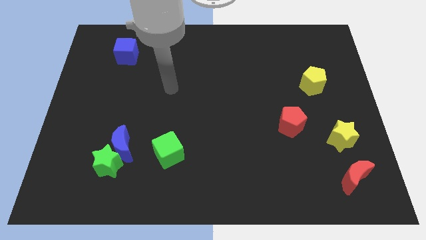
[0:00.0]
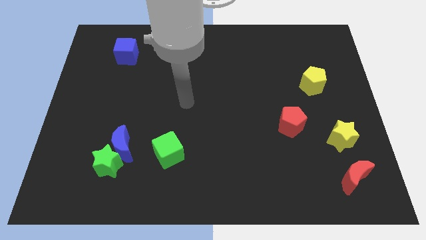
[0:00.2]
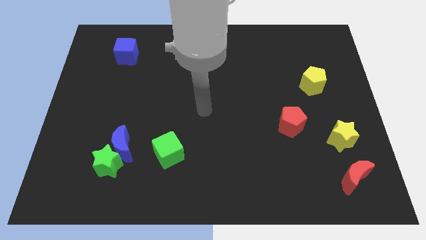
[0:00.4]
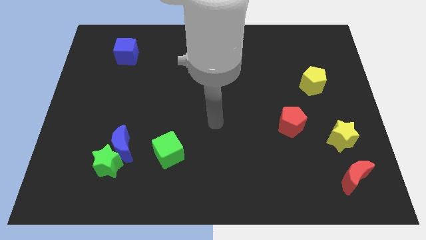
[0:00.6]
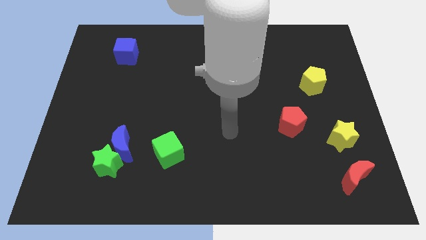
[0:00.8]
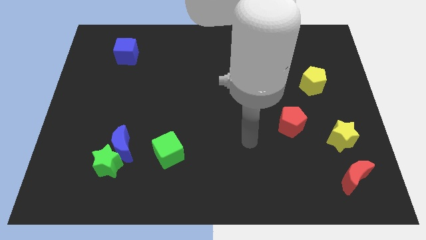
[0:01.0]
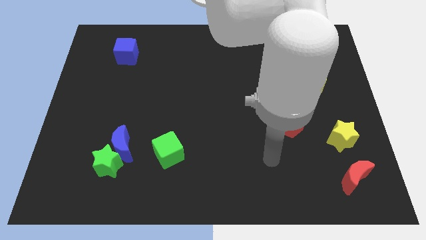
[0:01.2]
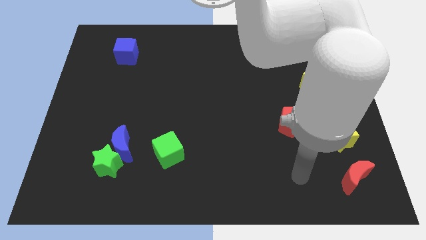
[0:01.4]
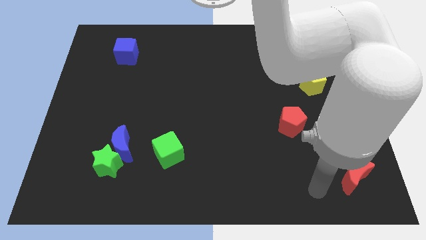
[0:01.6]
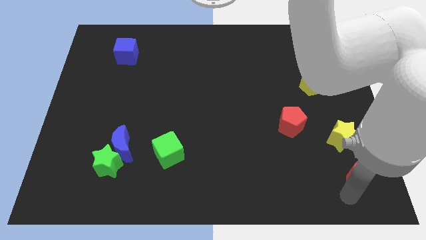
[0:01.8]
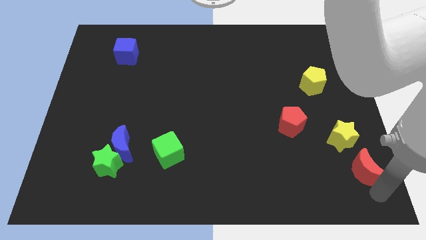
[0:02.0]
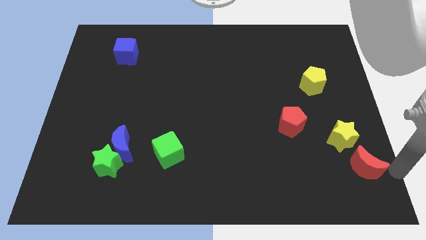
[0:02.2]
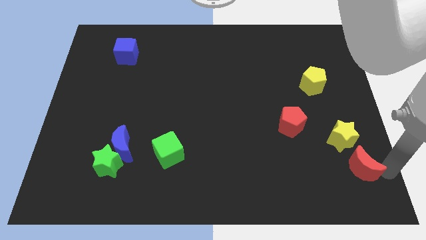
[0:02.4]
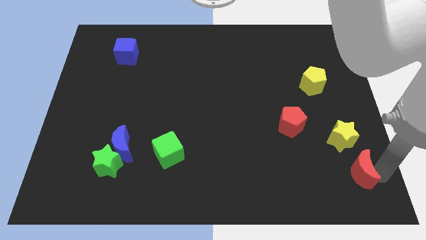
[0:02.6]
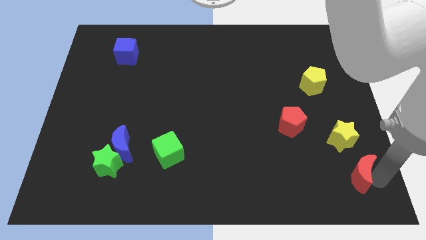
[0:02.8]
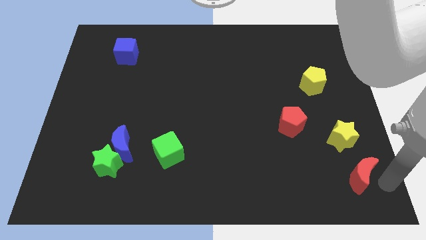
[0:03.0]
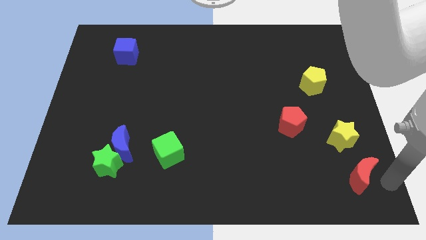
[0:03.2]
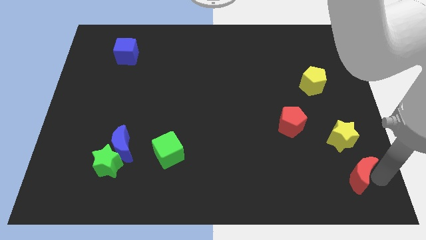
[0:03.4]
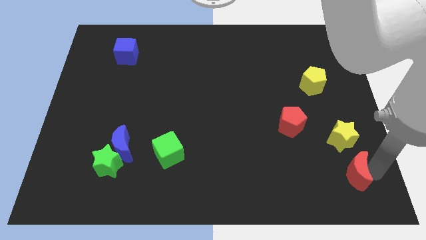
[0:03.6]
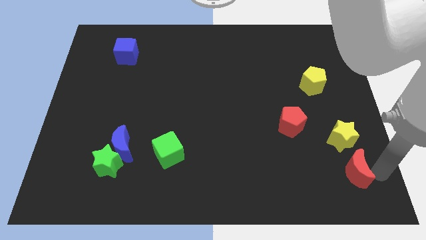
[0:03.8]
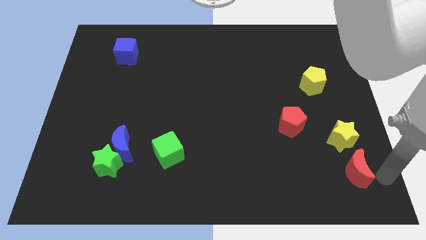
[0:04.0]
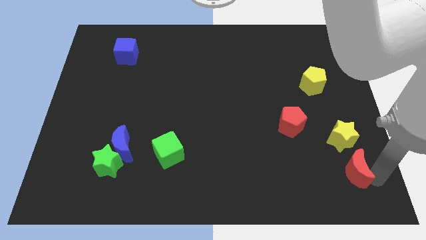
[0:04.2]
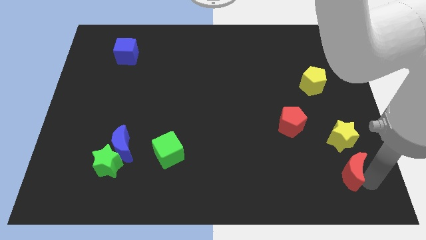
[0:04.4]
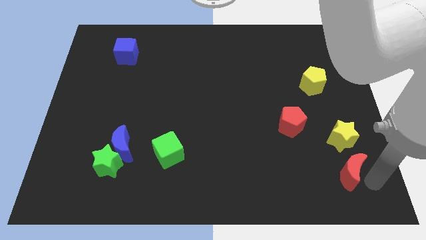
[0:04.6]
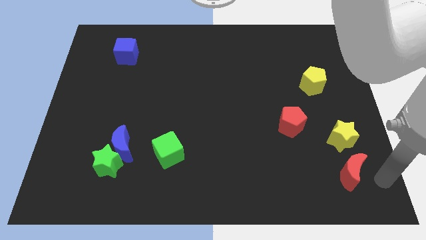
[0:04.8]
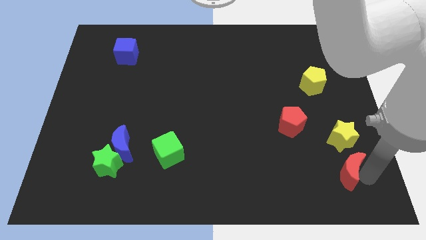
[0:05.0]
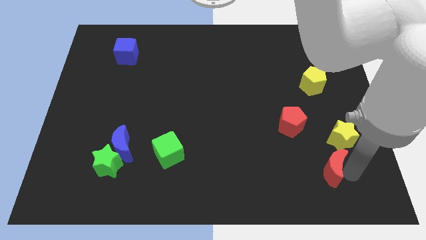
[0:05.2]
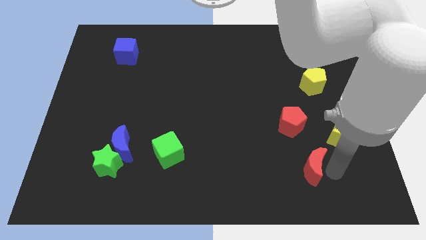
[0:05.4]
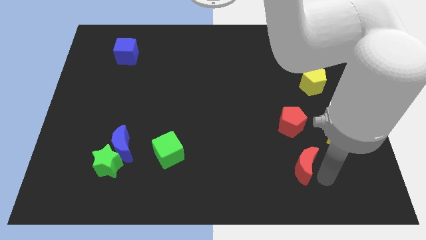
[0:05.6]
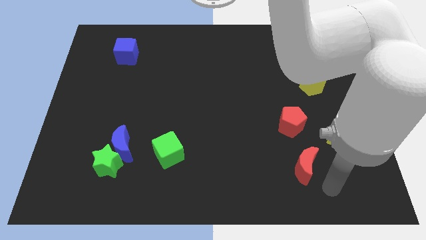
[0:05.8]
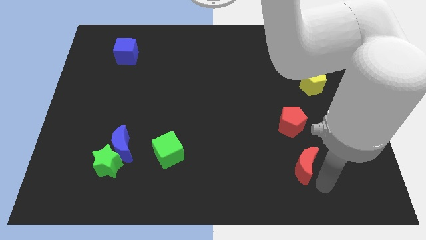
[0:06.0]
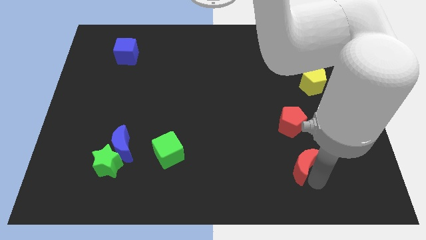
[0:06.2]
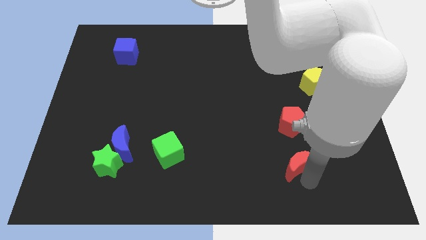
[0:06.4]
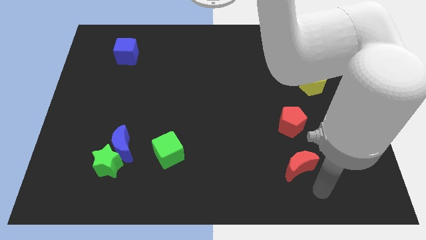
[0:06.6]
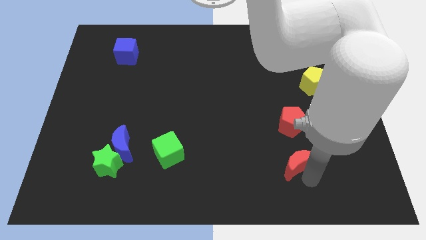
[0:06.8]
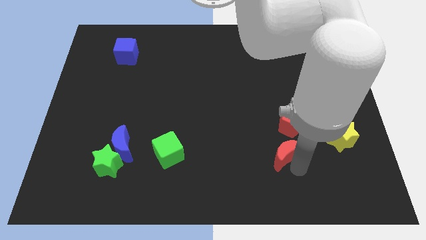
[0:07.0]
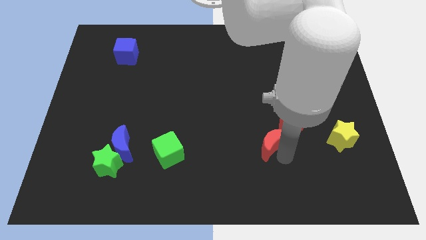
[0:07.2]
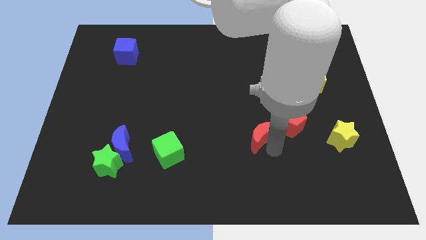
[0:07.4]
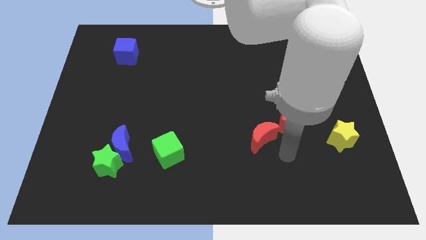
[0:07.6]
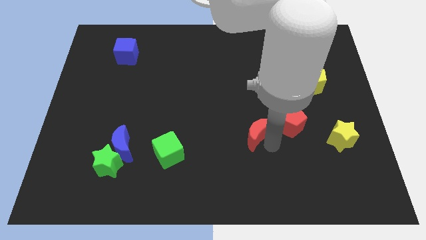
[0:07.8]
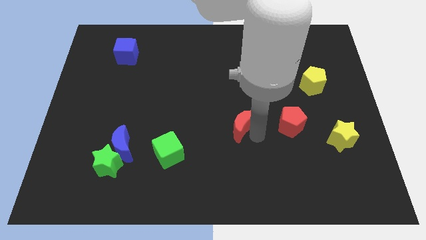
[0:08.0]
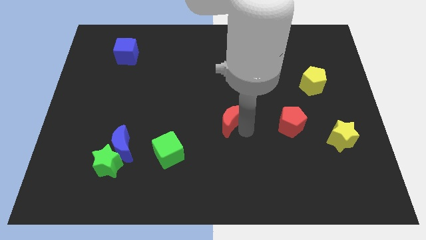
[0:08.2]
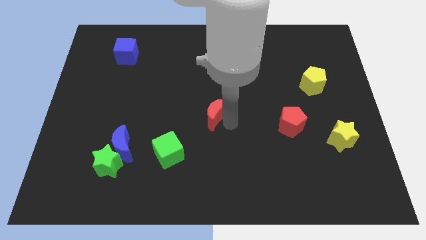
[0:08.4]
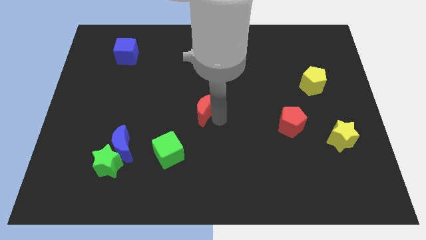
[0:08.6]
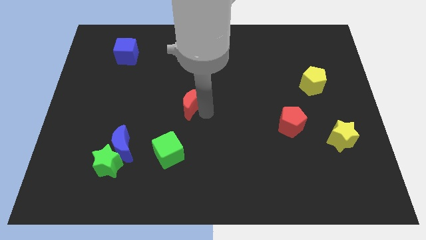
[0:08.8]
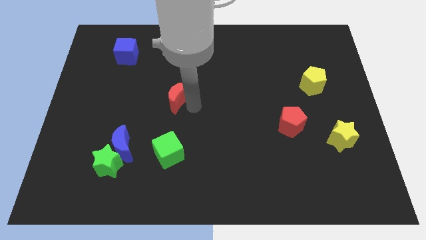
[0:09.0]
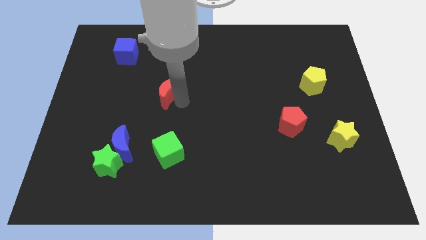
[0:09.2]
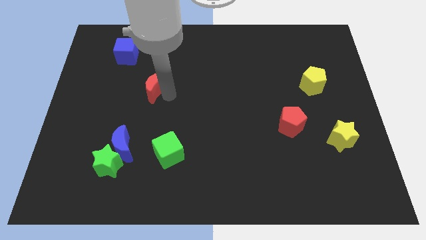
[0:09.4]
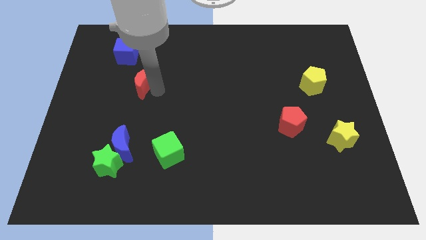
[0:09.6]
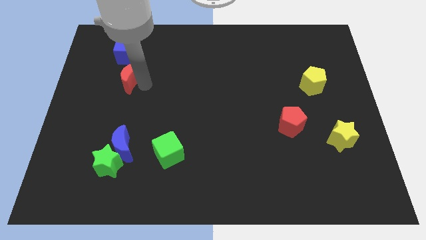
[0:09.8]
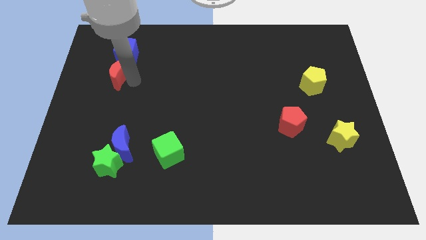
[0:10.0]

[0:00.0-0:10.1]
move the red moon diagonally down and to the left of the blue cube

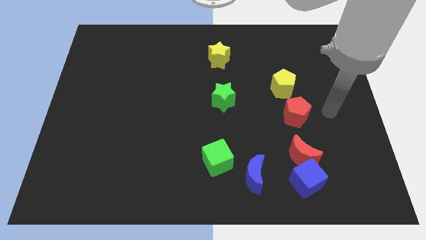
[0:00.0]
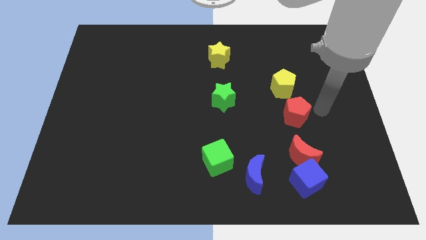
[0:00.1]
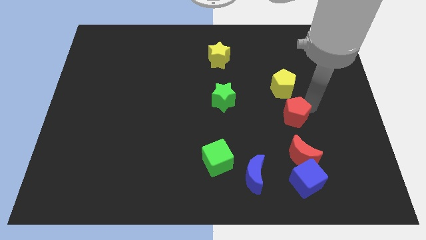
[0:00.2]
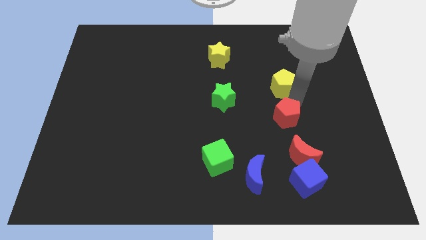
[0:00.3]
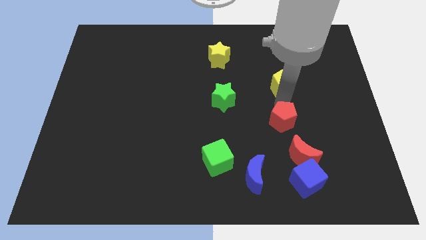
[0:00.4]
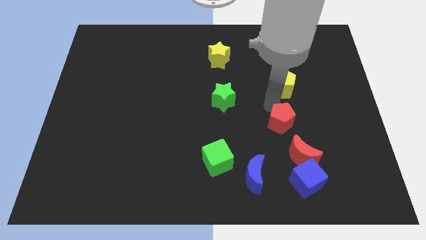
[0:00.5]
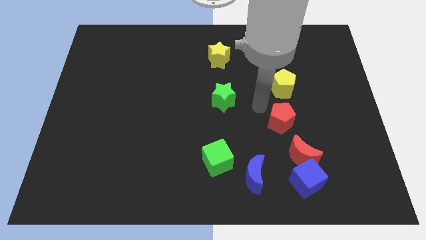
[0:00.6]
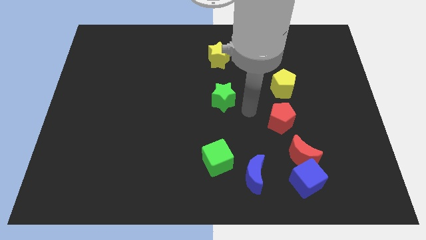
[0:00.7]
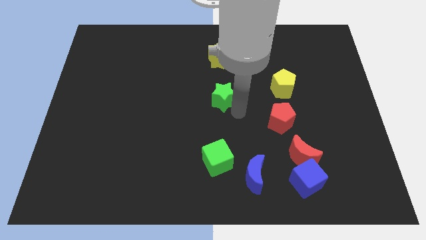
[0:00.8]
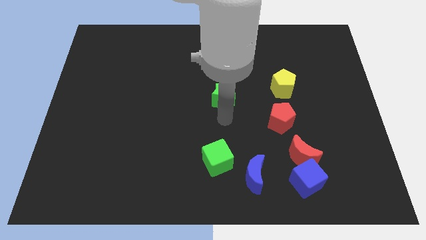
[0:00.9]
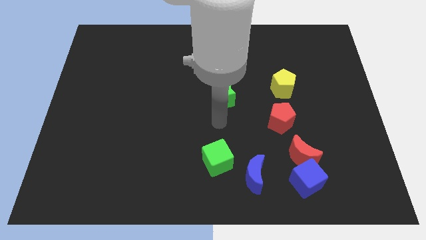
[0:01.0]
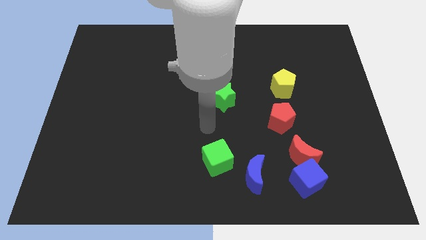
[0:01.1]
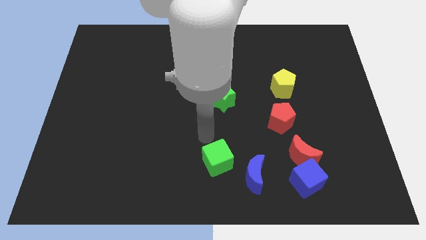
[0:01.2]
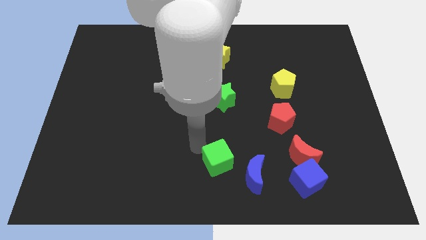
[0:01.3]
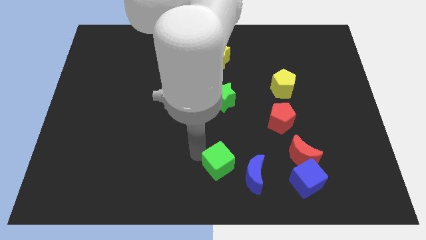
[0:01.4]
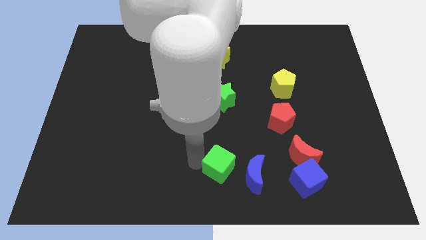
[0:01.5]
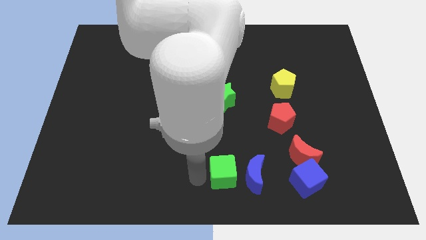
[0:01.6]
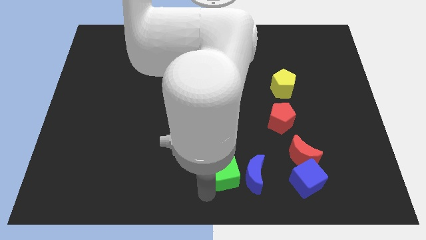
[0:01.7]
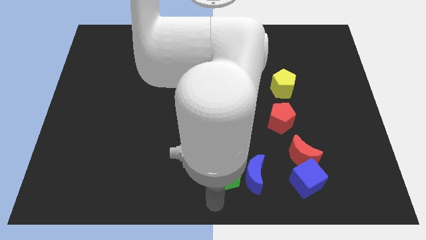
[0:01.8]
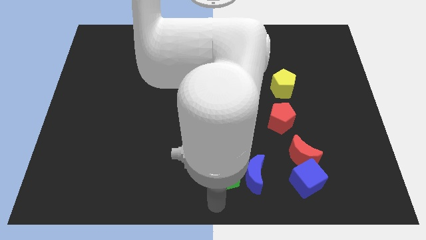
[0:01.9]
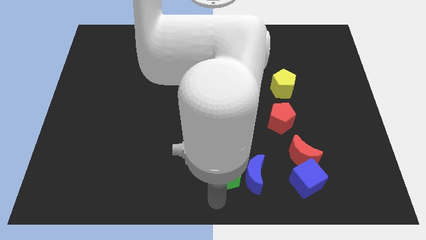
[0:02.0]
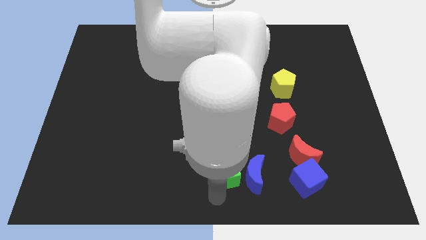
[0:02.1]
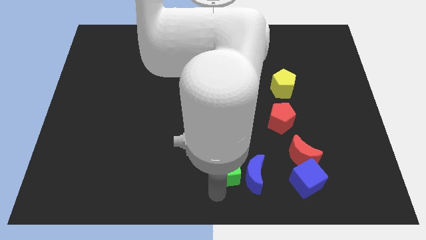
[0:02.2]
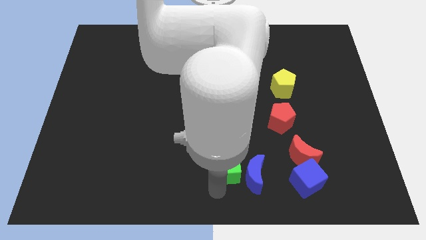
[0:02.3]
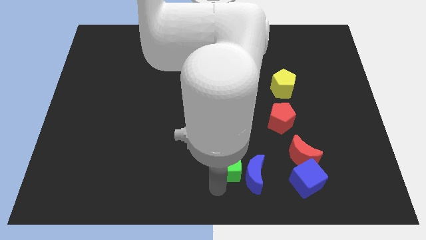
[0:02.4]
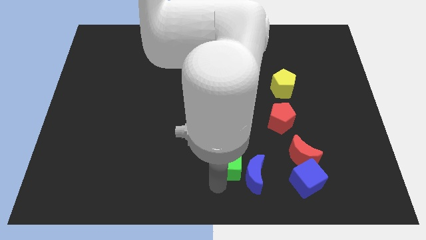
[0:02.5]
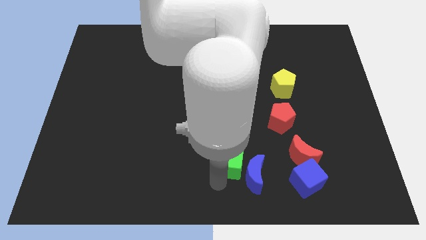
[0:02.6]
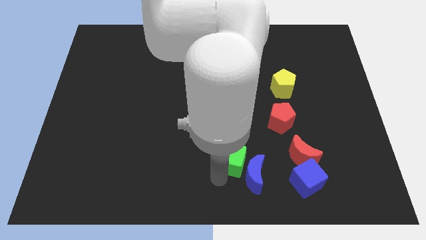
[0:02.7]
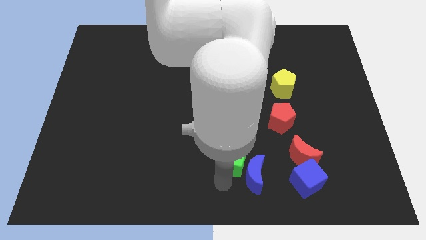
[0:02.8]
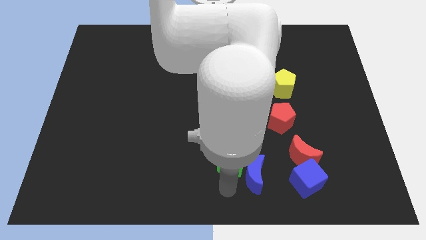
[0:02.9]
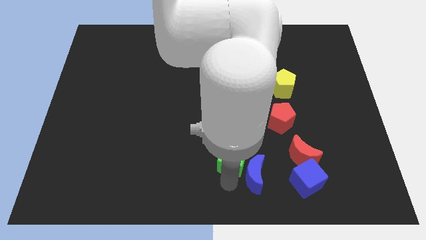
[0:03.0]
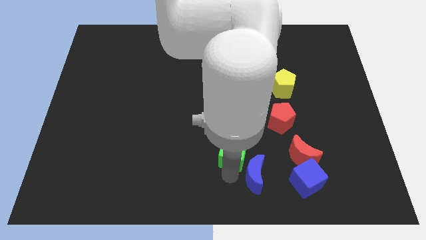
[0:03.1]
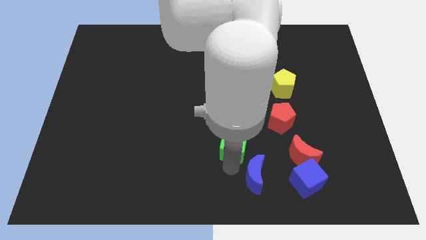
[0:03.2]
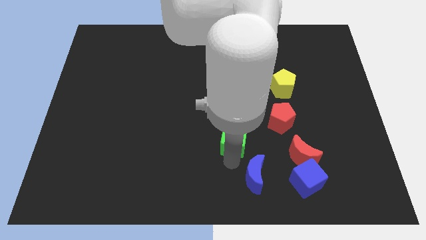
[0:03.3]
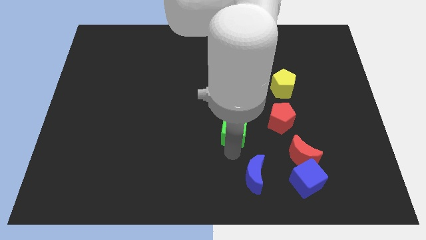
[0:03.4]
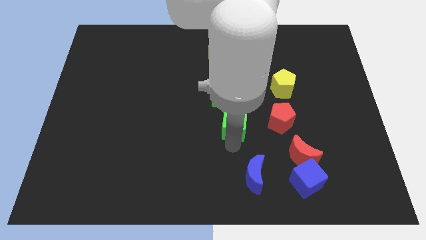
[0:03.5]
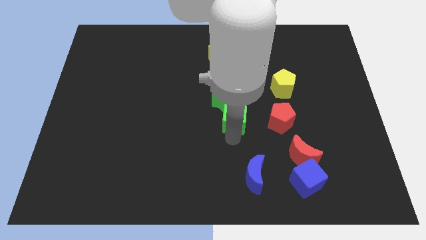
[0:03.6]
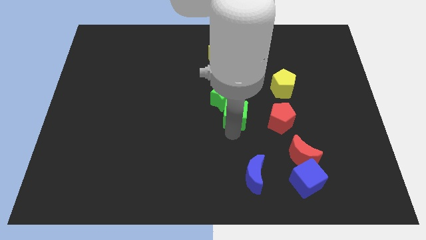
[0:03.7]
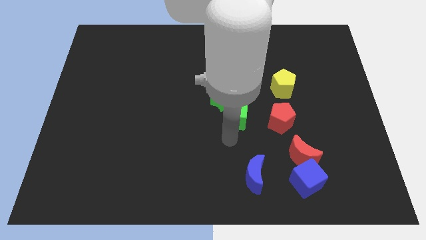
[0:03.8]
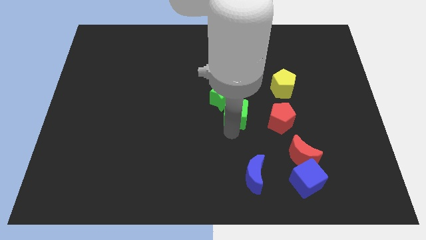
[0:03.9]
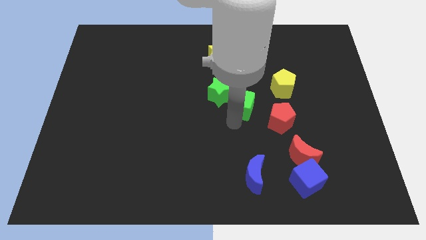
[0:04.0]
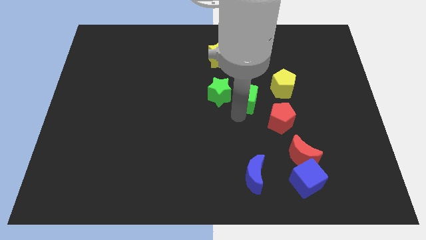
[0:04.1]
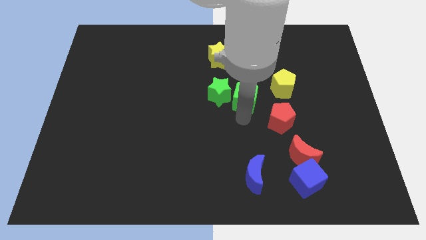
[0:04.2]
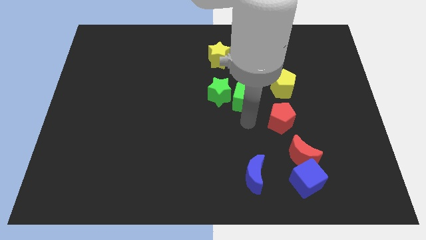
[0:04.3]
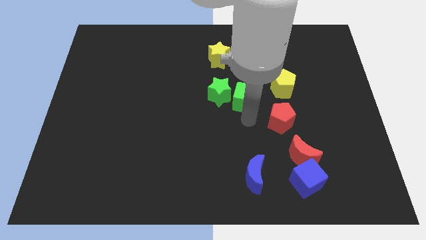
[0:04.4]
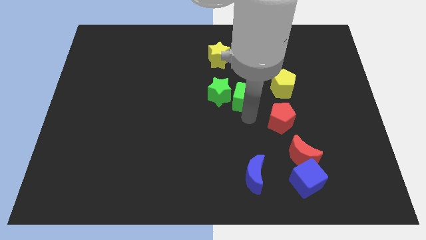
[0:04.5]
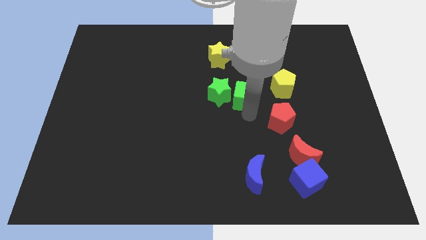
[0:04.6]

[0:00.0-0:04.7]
push the green cube diagonally up and to the right of the green star
